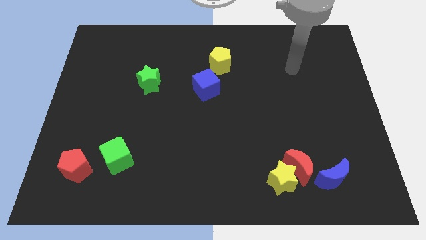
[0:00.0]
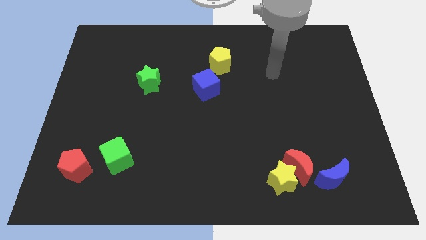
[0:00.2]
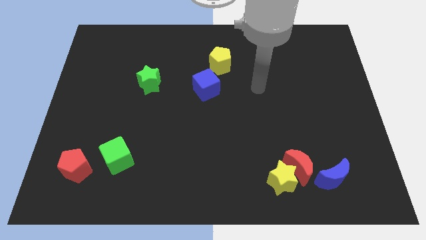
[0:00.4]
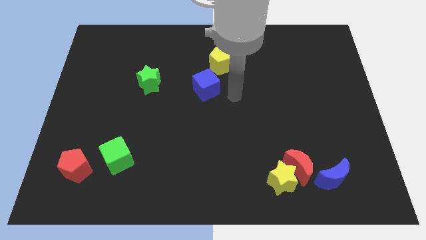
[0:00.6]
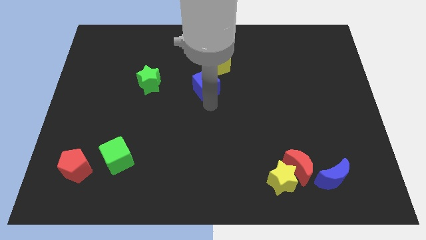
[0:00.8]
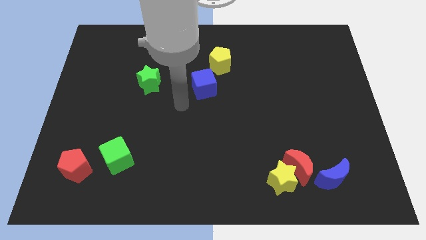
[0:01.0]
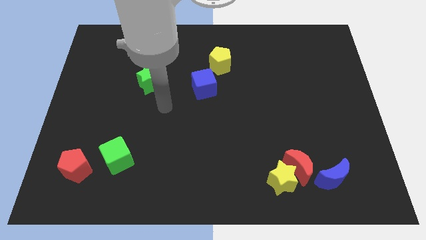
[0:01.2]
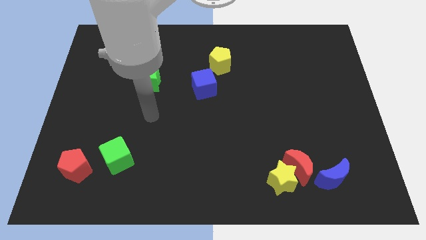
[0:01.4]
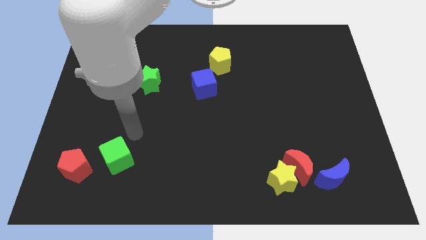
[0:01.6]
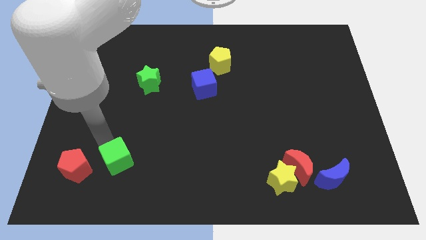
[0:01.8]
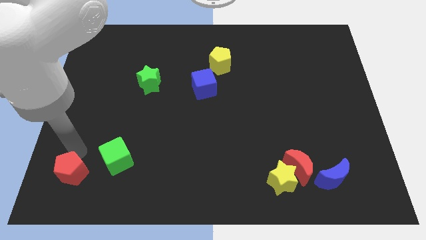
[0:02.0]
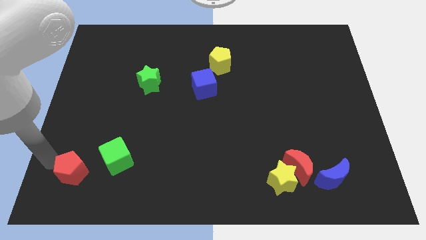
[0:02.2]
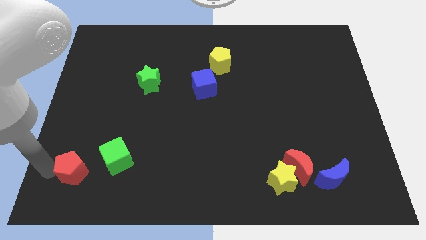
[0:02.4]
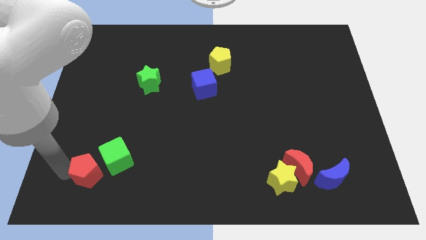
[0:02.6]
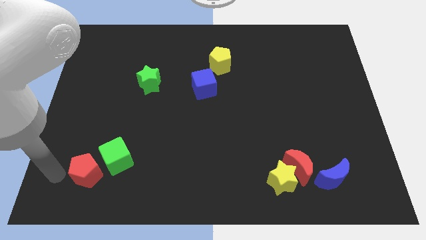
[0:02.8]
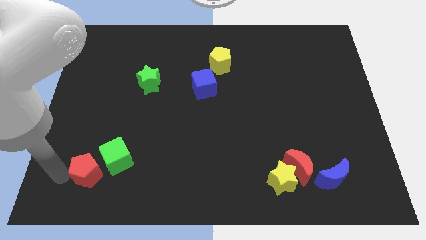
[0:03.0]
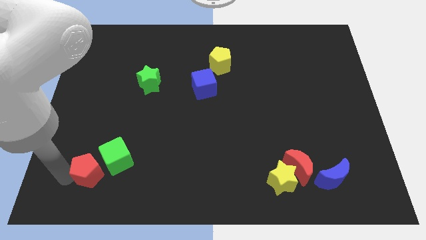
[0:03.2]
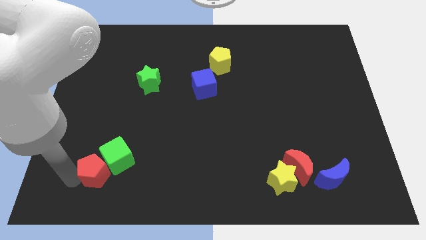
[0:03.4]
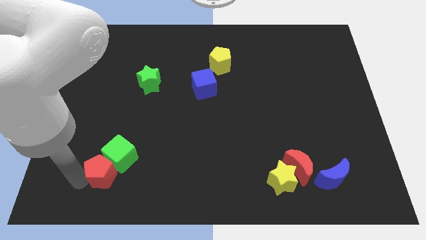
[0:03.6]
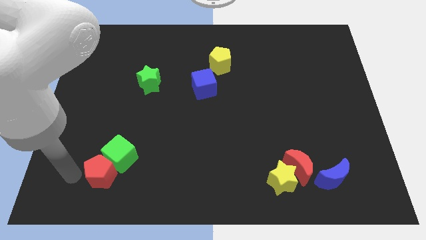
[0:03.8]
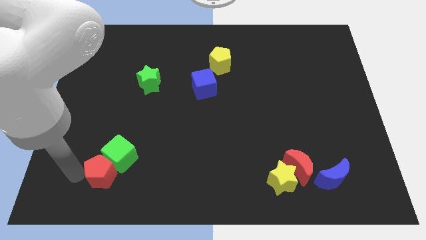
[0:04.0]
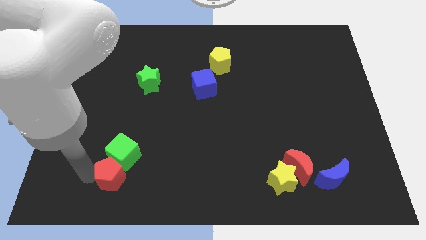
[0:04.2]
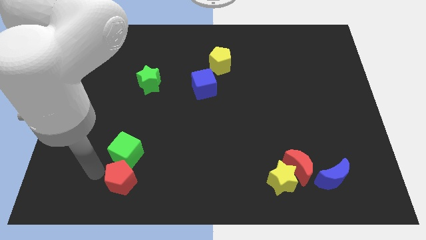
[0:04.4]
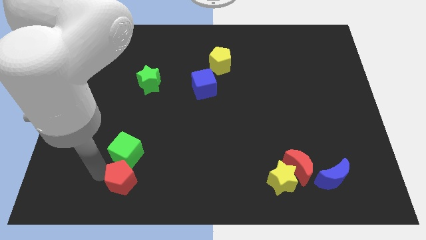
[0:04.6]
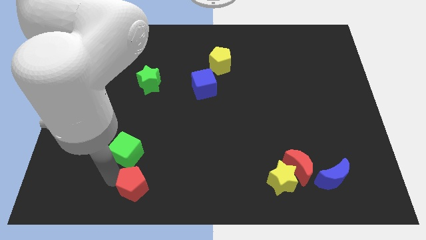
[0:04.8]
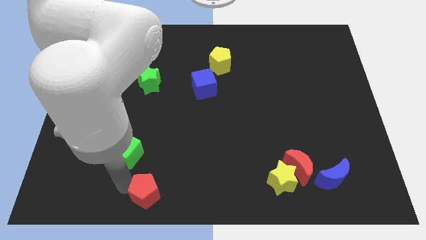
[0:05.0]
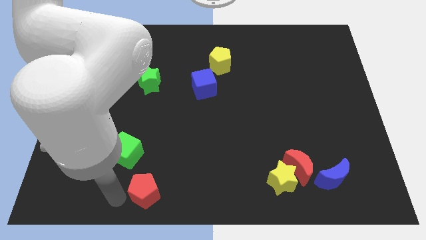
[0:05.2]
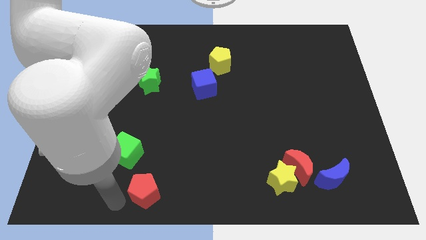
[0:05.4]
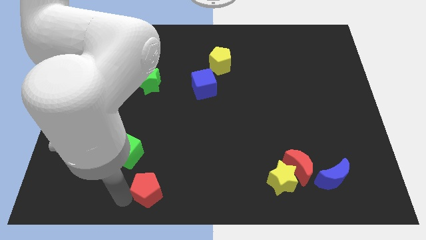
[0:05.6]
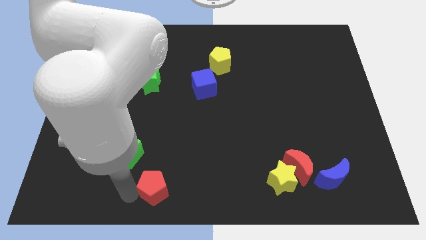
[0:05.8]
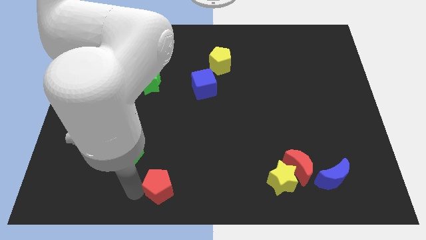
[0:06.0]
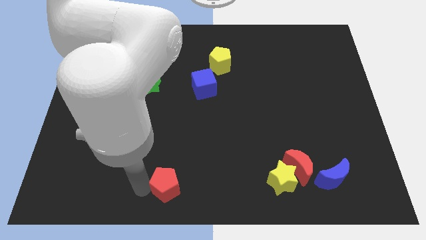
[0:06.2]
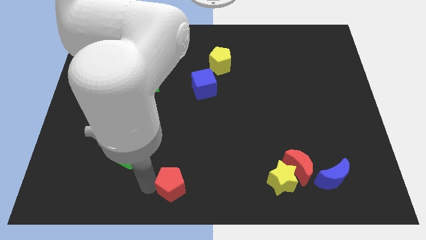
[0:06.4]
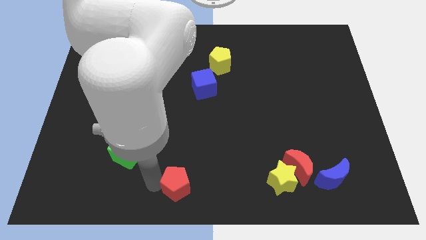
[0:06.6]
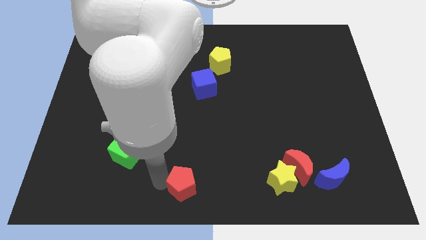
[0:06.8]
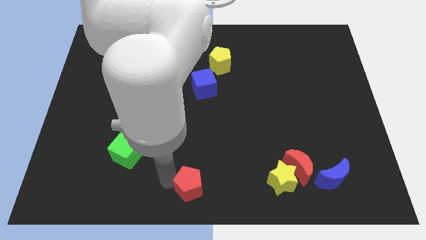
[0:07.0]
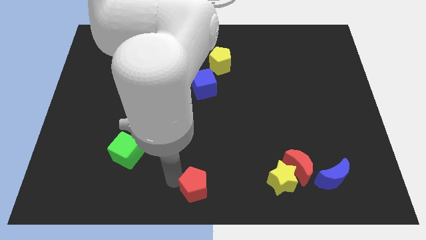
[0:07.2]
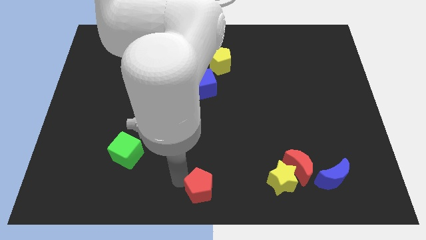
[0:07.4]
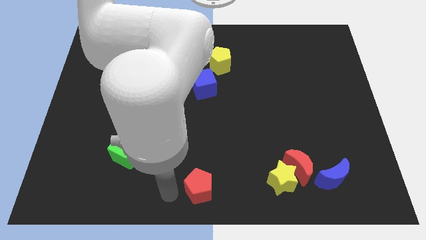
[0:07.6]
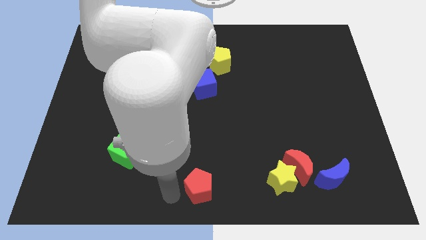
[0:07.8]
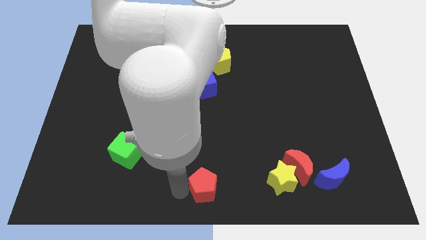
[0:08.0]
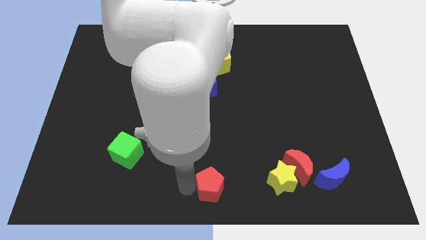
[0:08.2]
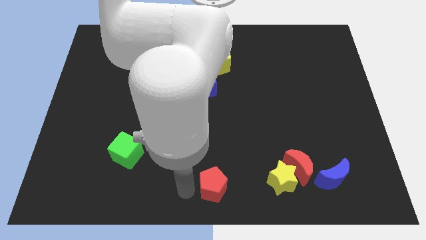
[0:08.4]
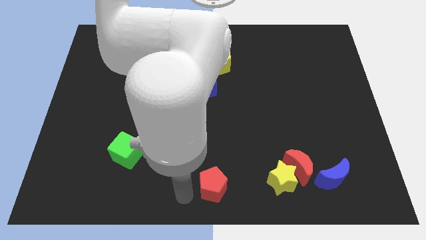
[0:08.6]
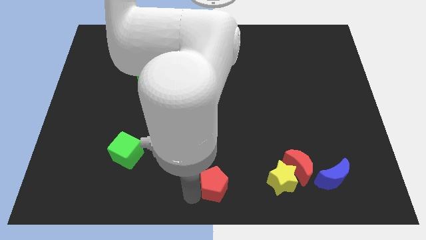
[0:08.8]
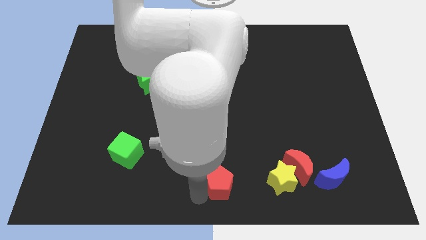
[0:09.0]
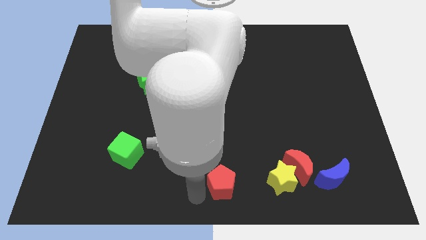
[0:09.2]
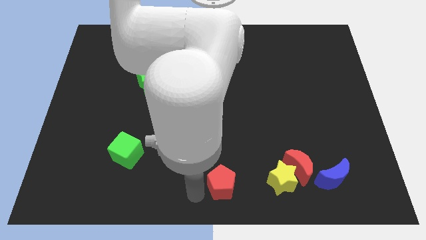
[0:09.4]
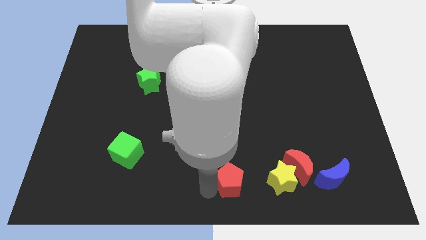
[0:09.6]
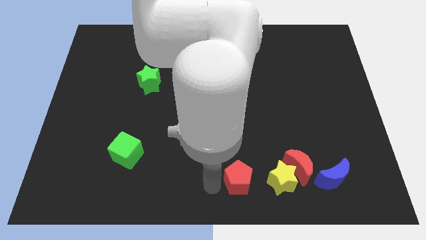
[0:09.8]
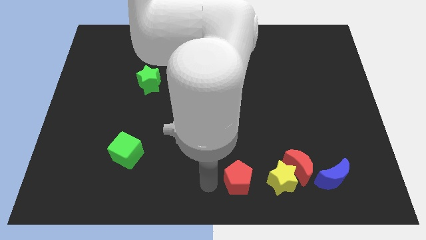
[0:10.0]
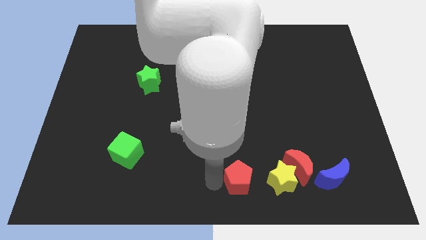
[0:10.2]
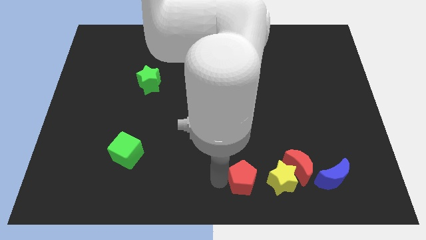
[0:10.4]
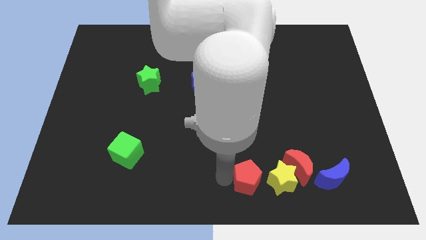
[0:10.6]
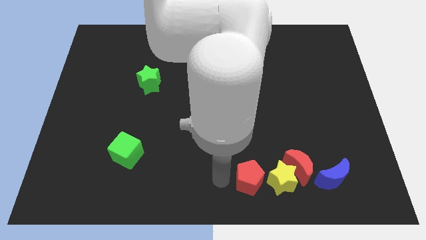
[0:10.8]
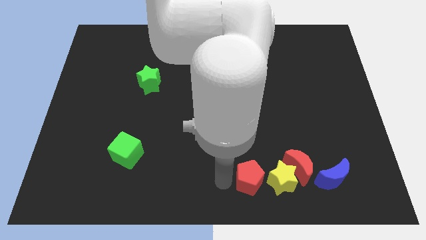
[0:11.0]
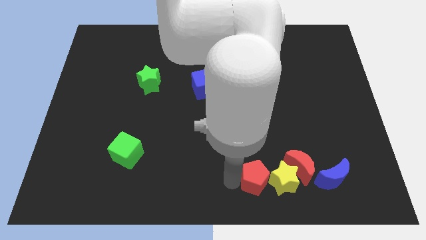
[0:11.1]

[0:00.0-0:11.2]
slide the red pentagon to the left side of the blue moon
